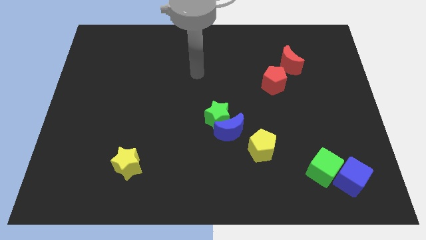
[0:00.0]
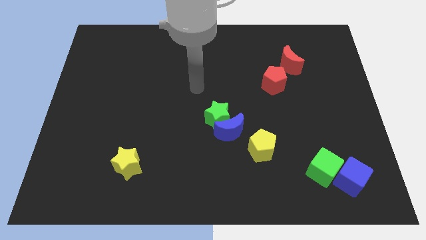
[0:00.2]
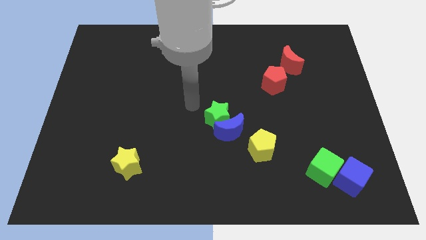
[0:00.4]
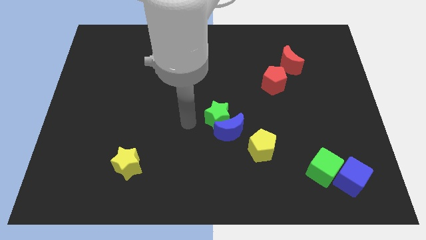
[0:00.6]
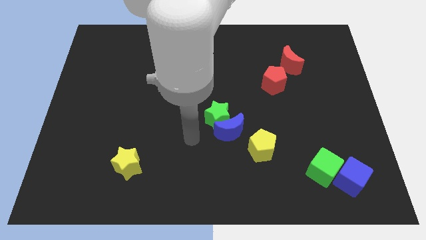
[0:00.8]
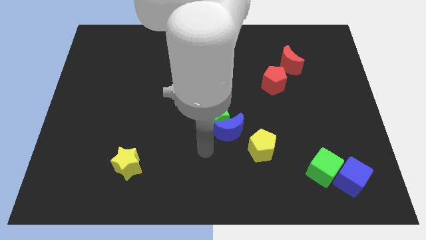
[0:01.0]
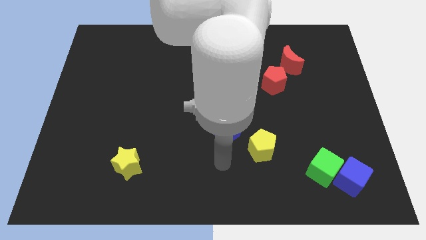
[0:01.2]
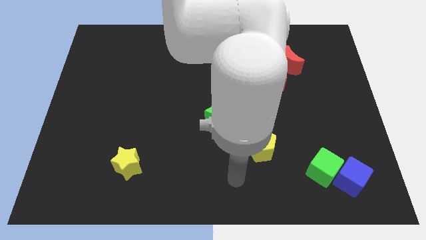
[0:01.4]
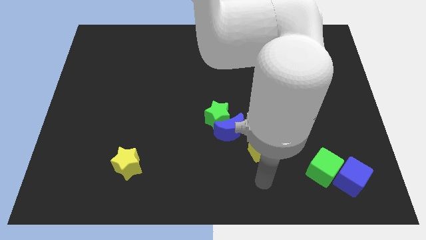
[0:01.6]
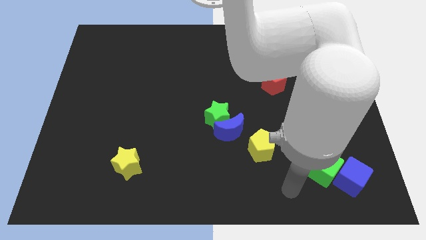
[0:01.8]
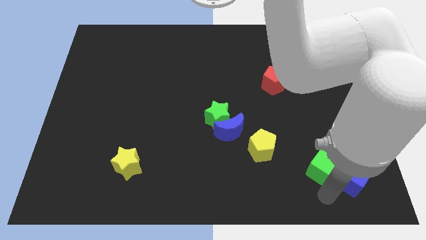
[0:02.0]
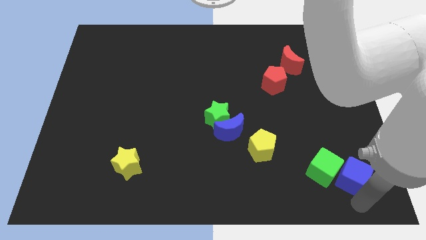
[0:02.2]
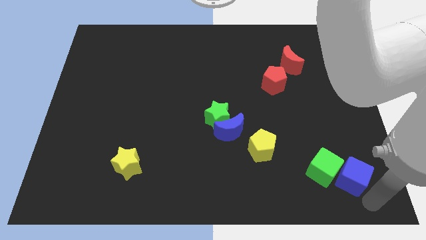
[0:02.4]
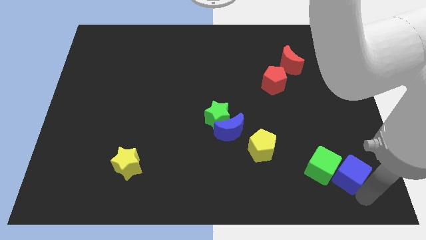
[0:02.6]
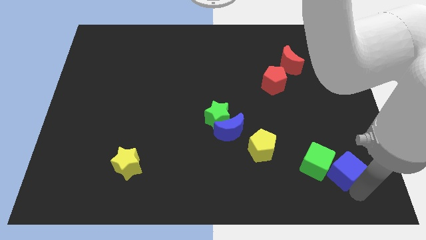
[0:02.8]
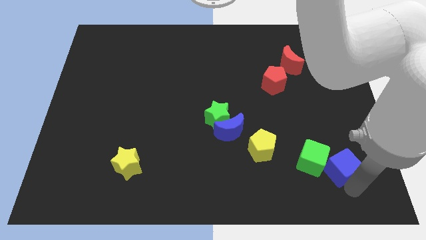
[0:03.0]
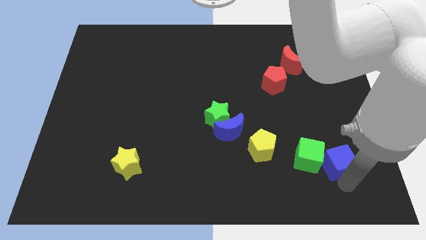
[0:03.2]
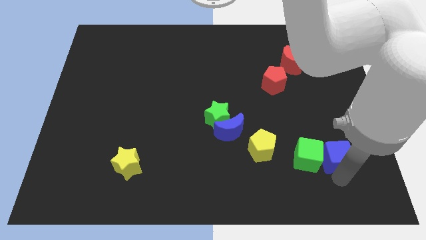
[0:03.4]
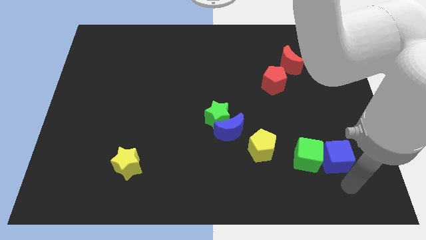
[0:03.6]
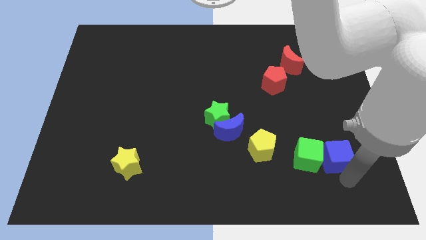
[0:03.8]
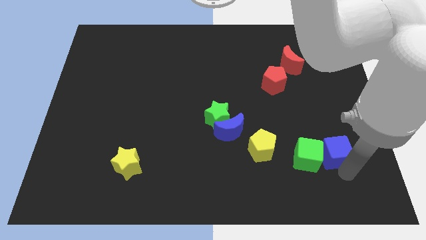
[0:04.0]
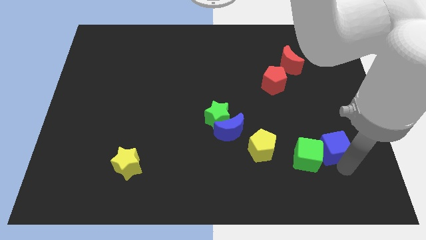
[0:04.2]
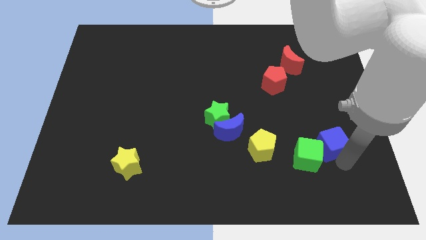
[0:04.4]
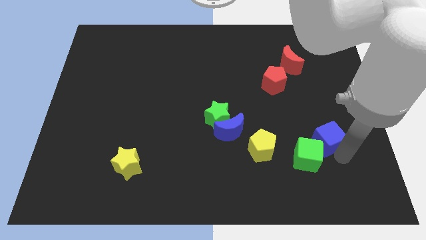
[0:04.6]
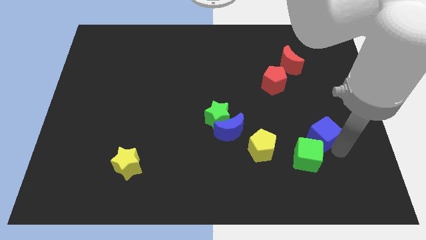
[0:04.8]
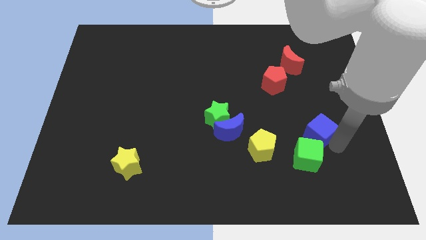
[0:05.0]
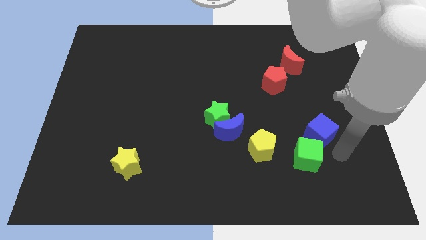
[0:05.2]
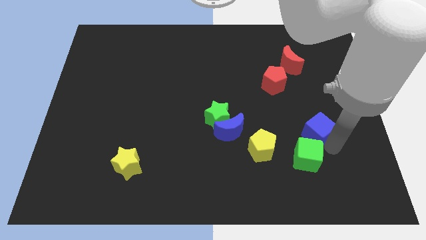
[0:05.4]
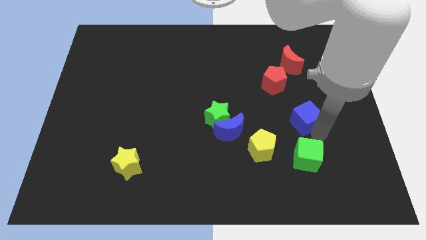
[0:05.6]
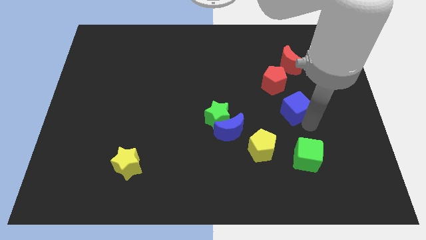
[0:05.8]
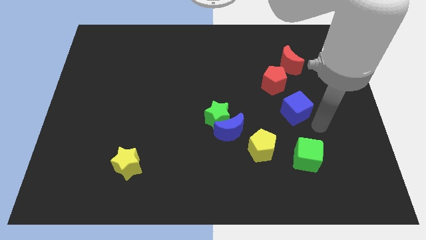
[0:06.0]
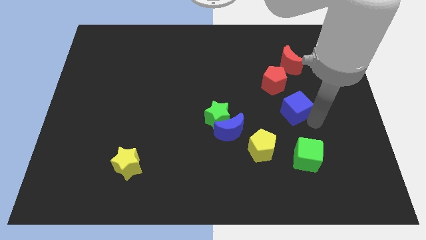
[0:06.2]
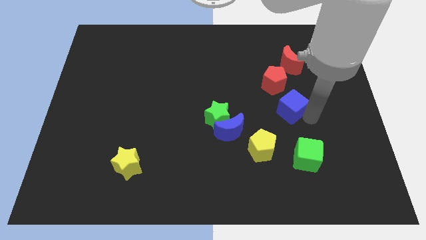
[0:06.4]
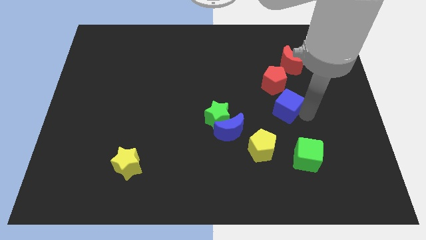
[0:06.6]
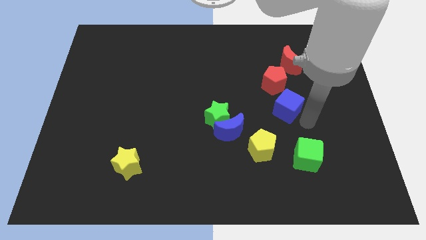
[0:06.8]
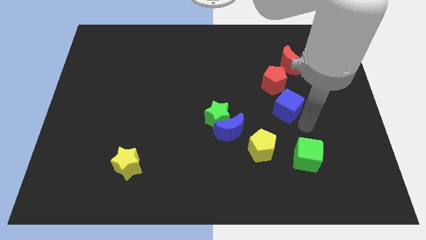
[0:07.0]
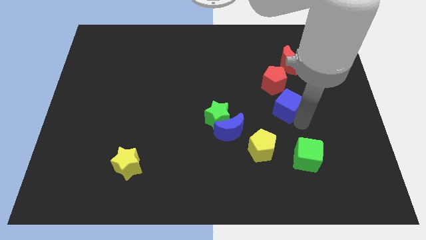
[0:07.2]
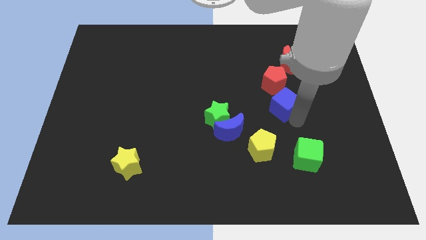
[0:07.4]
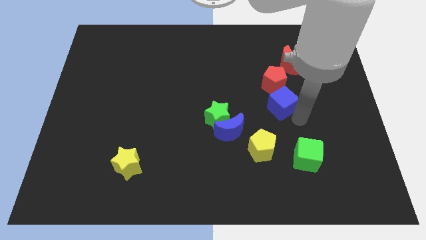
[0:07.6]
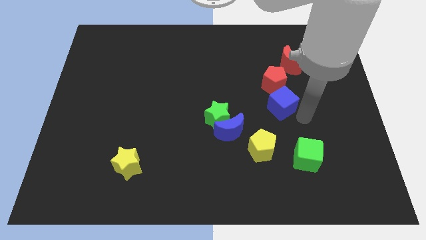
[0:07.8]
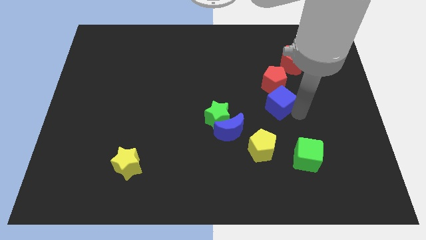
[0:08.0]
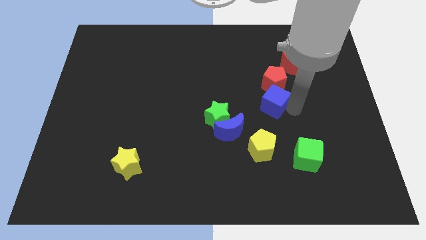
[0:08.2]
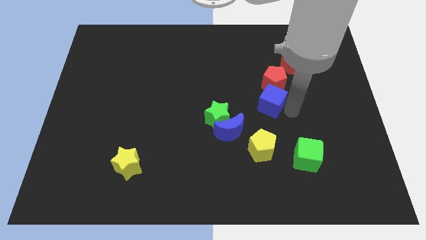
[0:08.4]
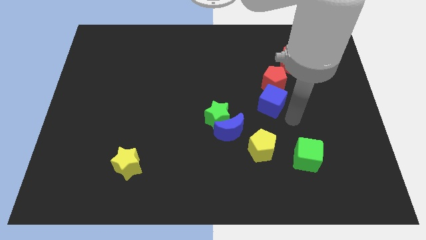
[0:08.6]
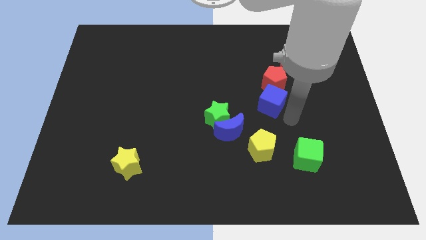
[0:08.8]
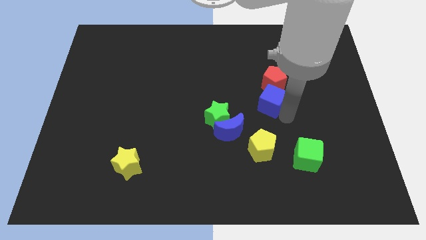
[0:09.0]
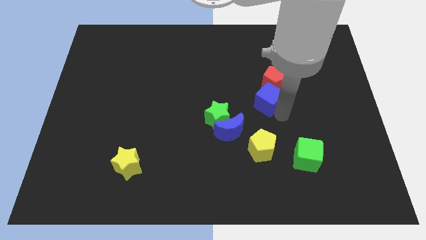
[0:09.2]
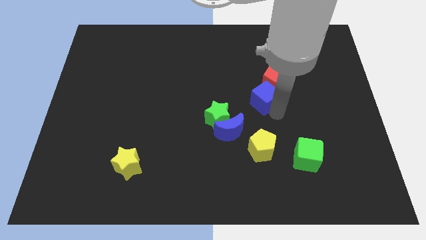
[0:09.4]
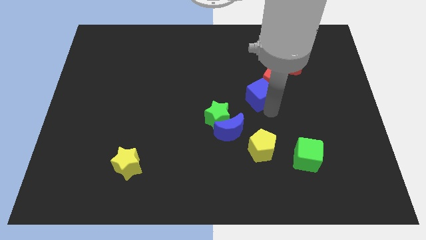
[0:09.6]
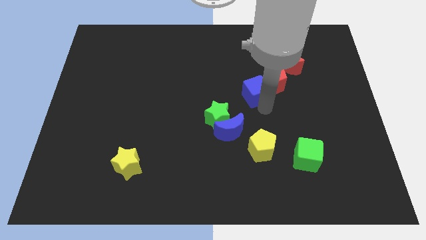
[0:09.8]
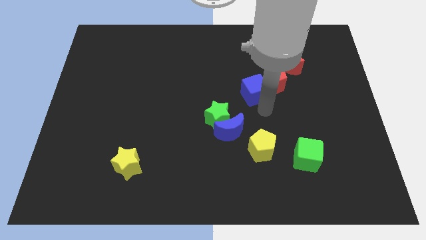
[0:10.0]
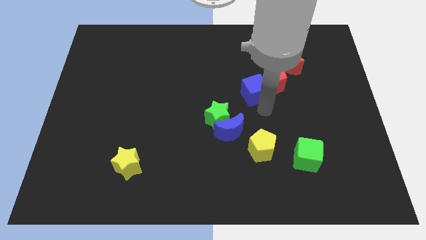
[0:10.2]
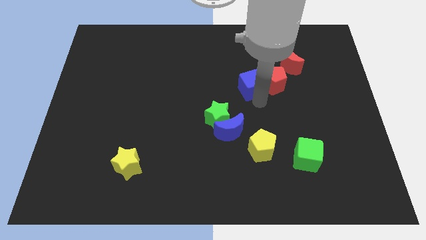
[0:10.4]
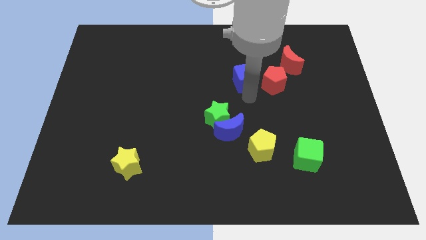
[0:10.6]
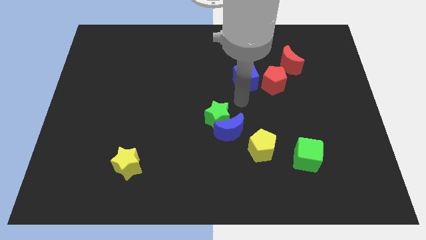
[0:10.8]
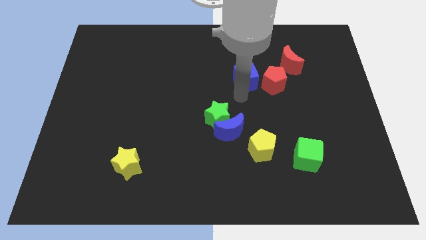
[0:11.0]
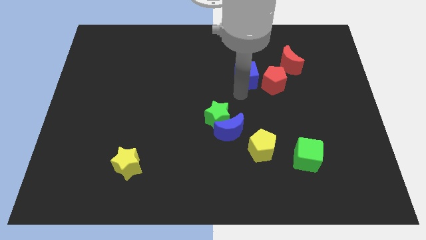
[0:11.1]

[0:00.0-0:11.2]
push the blue cube left of the red moon
